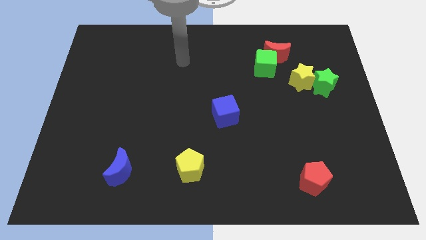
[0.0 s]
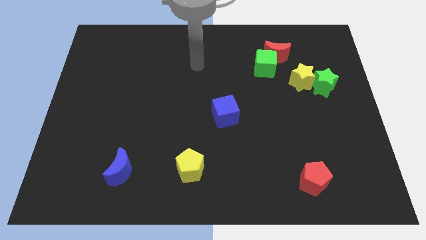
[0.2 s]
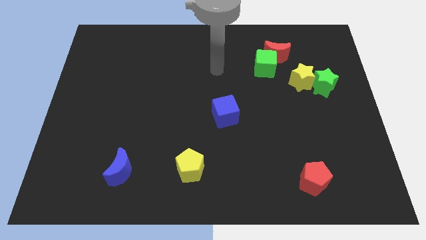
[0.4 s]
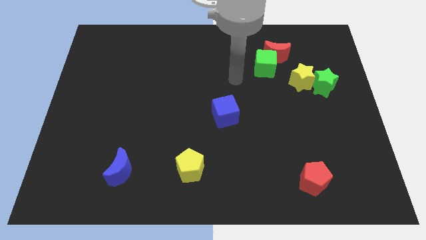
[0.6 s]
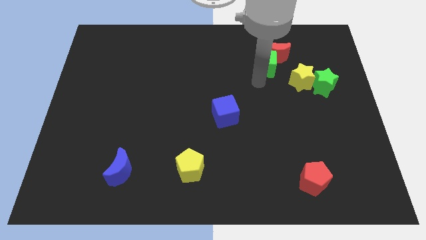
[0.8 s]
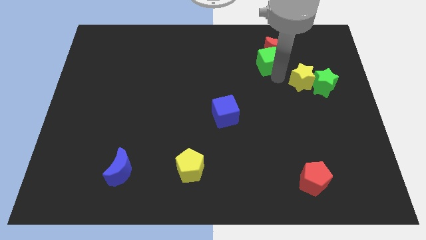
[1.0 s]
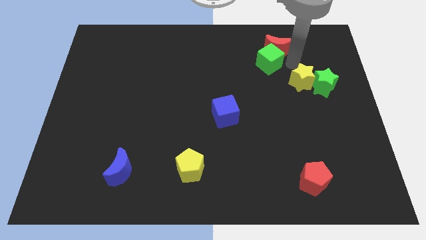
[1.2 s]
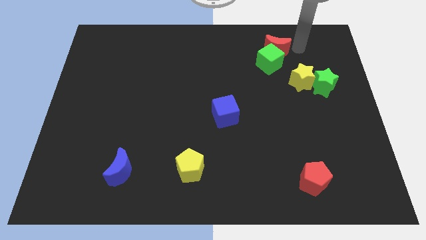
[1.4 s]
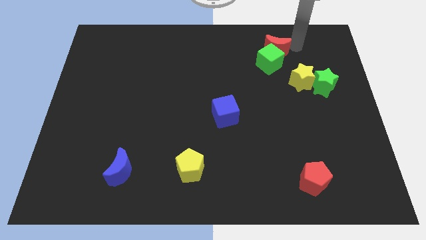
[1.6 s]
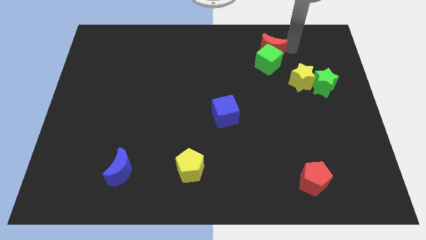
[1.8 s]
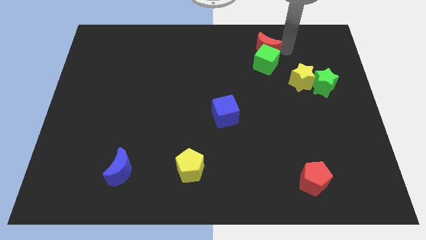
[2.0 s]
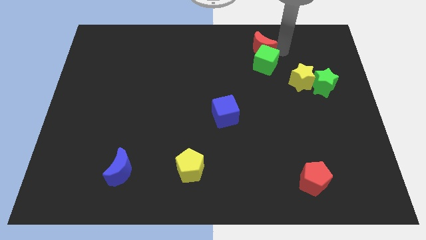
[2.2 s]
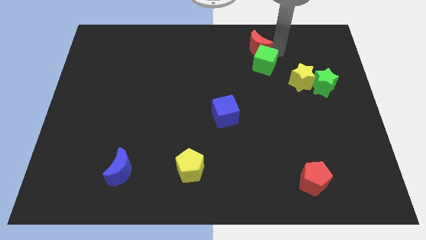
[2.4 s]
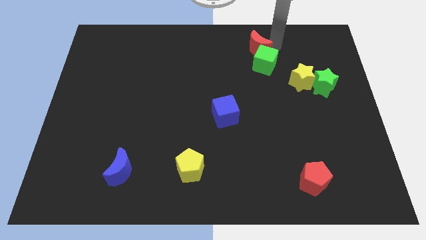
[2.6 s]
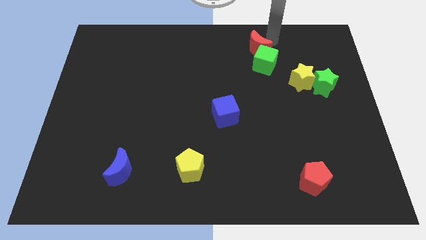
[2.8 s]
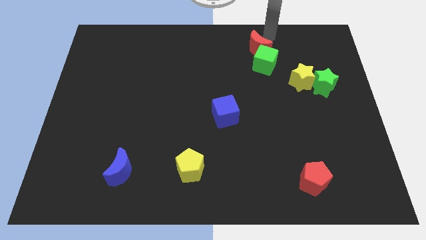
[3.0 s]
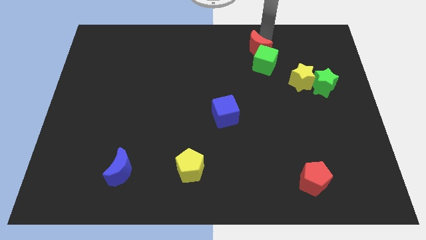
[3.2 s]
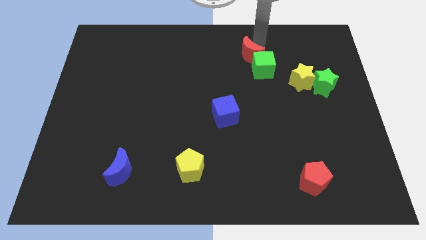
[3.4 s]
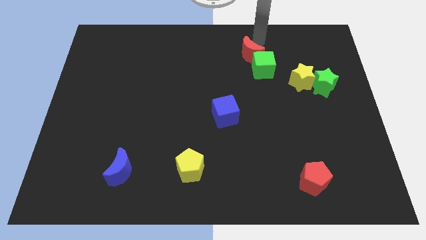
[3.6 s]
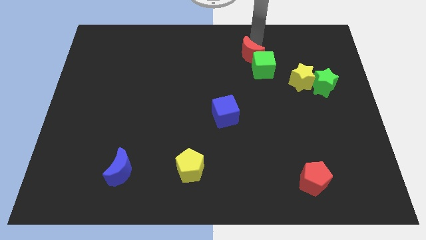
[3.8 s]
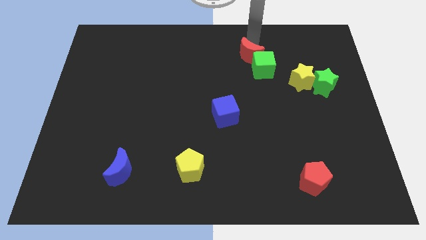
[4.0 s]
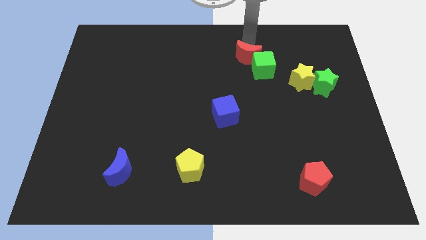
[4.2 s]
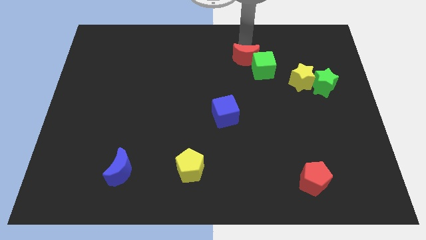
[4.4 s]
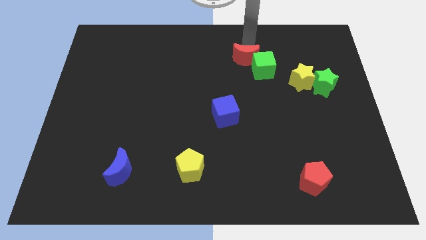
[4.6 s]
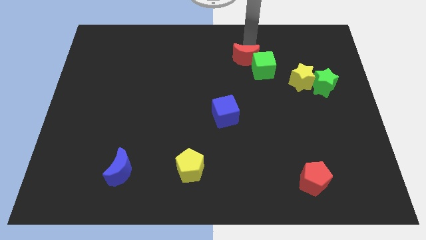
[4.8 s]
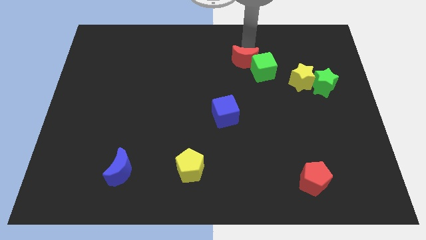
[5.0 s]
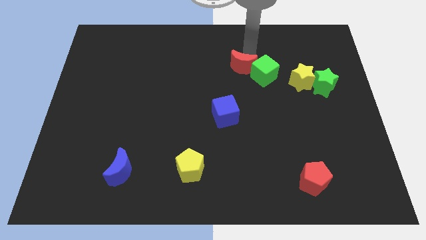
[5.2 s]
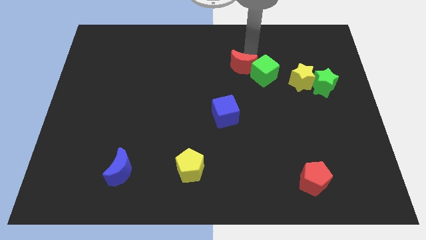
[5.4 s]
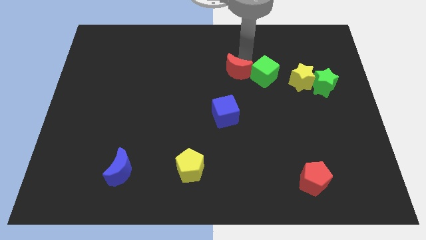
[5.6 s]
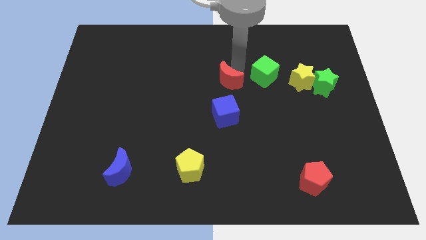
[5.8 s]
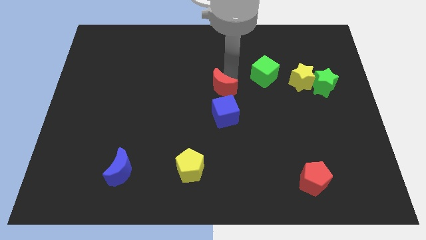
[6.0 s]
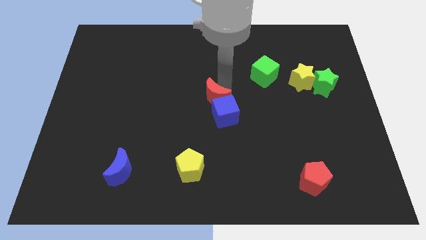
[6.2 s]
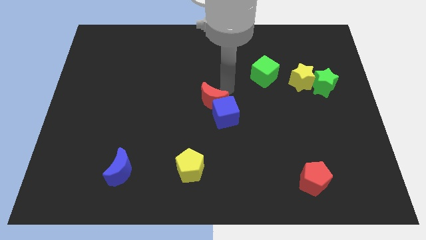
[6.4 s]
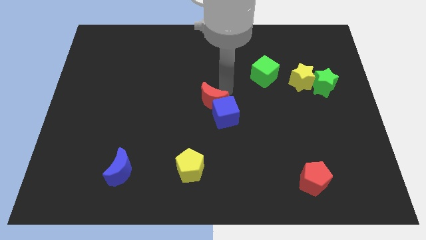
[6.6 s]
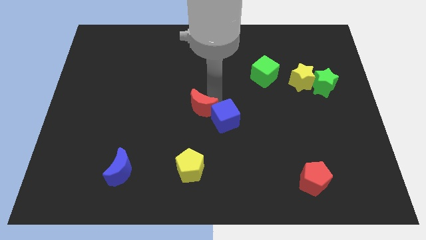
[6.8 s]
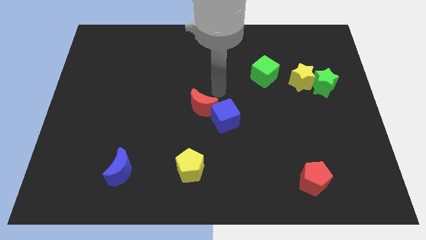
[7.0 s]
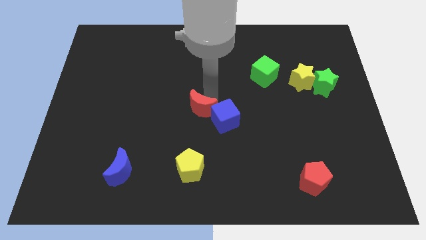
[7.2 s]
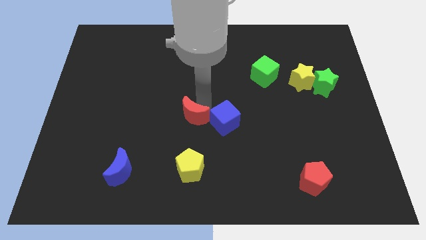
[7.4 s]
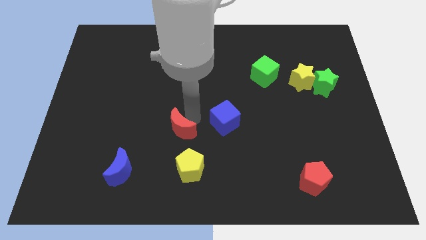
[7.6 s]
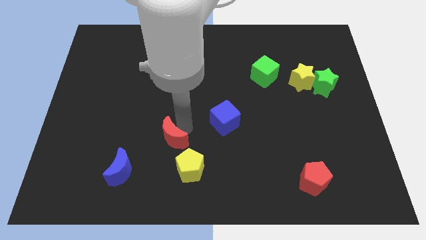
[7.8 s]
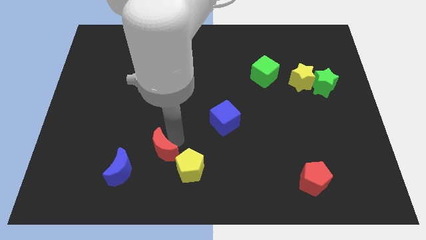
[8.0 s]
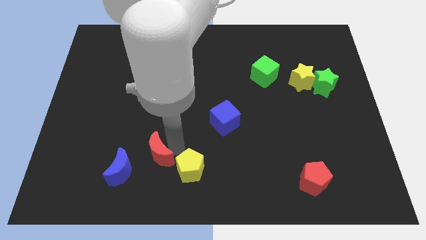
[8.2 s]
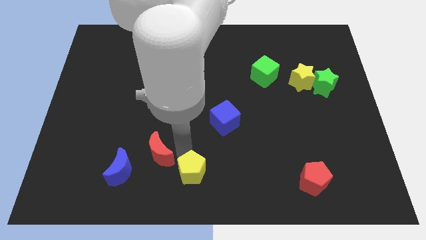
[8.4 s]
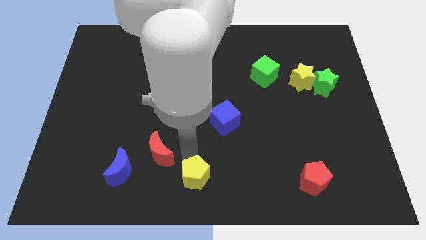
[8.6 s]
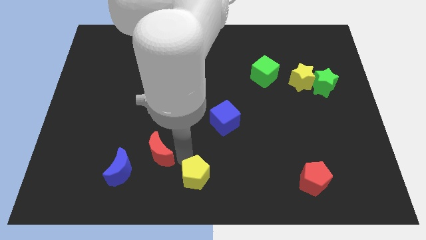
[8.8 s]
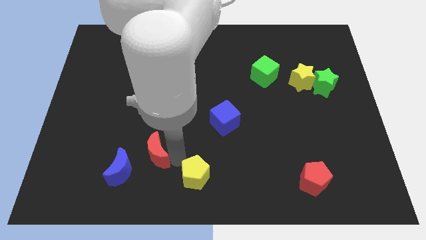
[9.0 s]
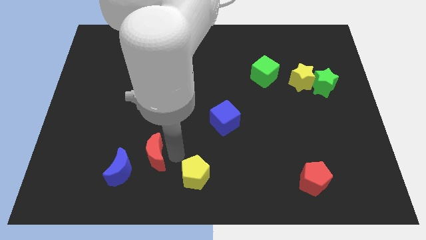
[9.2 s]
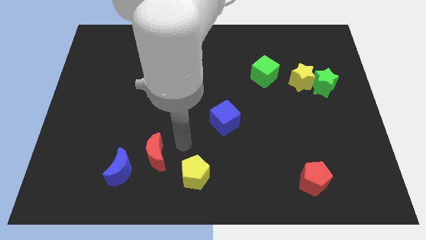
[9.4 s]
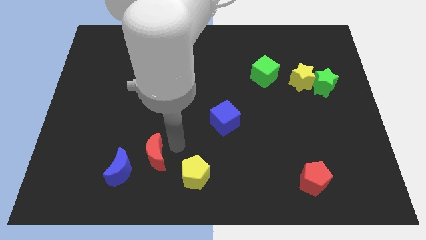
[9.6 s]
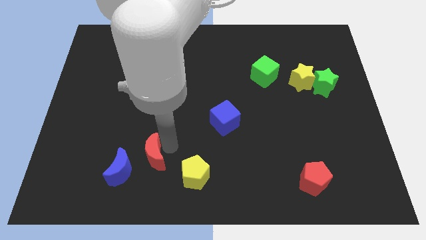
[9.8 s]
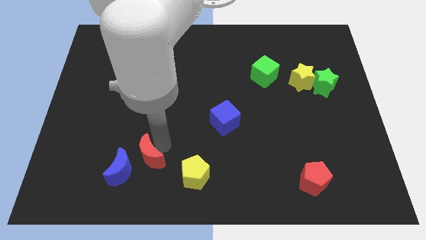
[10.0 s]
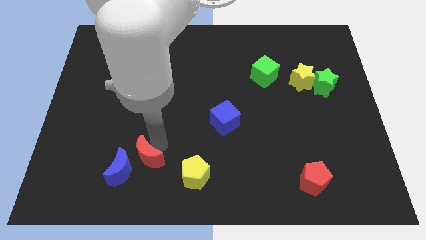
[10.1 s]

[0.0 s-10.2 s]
put the red moon close to the blue moon

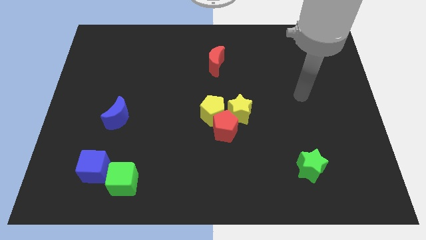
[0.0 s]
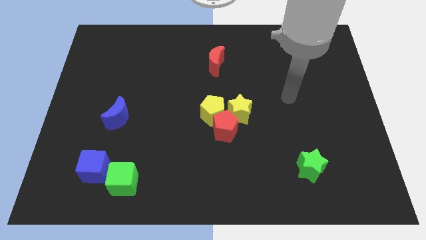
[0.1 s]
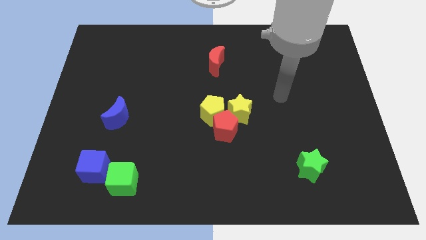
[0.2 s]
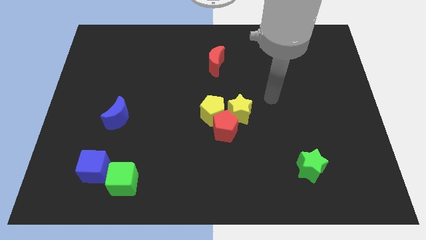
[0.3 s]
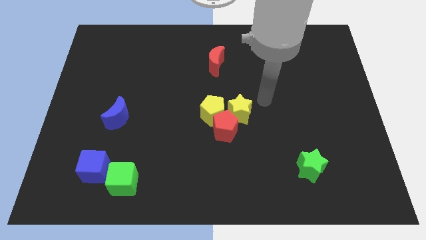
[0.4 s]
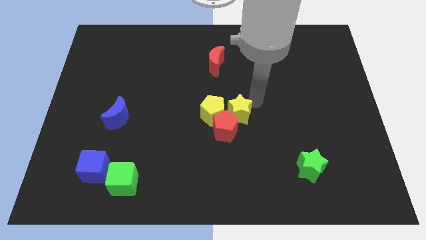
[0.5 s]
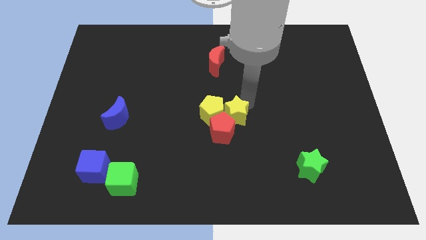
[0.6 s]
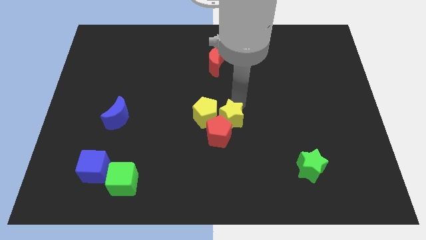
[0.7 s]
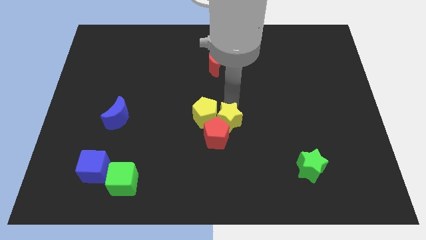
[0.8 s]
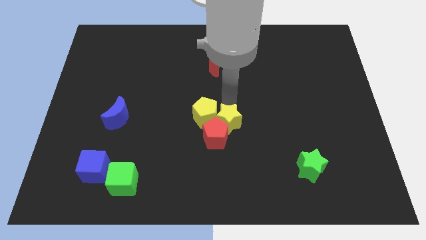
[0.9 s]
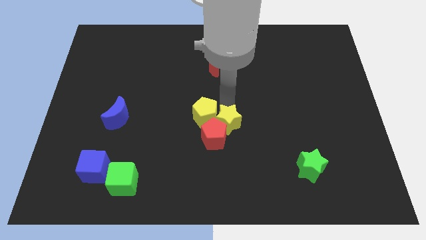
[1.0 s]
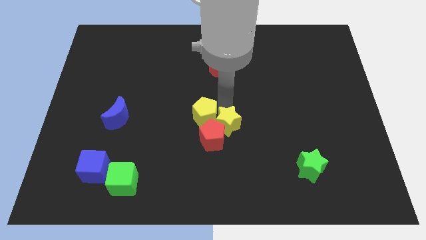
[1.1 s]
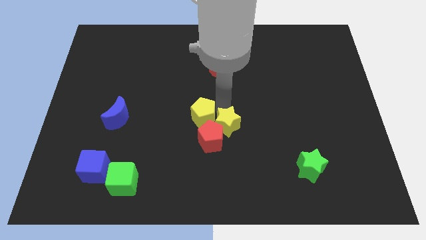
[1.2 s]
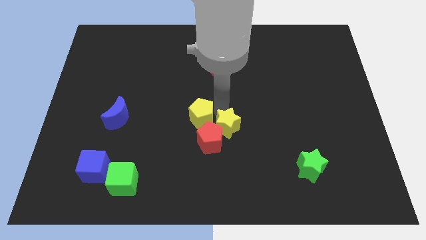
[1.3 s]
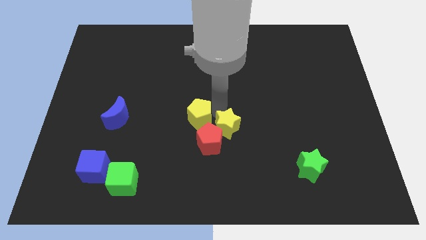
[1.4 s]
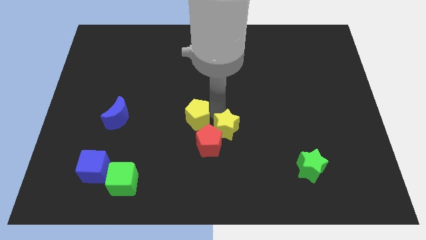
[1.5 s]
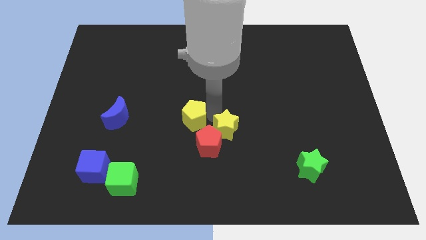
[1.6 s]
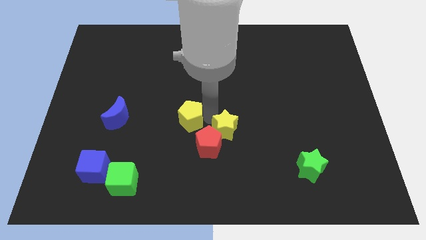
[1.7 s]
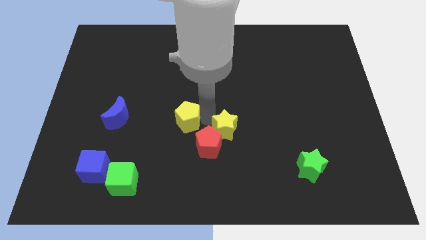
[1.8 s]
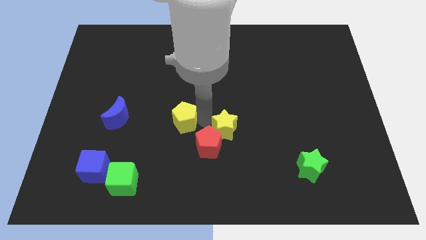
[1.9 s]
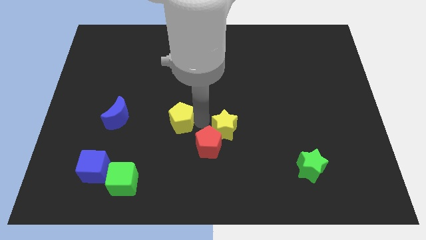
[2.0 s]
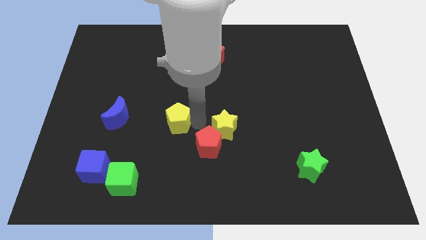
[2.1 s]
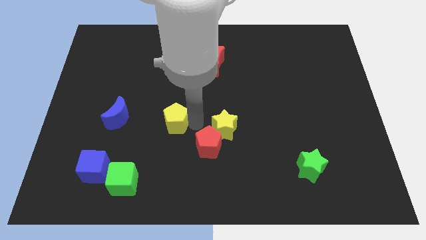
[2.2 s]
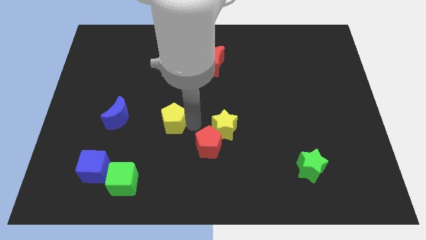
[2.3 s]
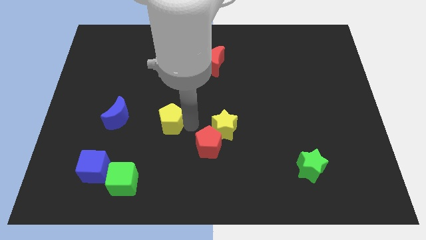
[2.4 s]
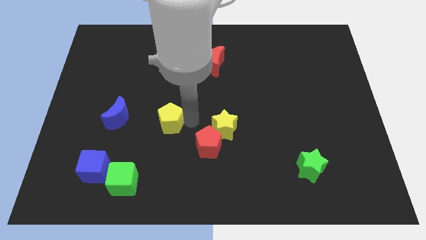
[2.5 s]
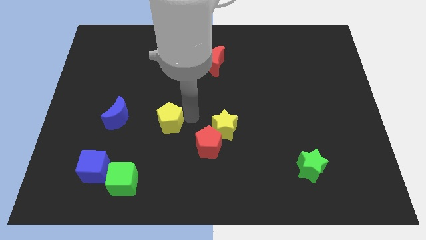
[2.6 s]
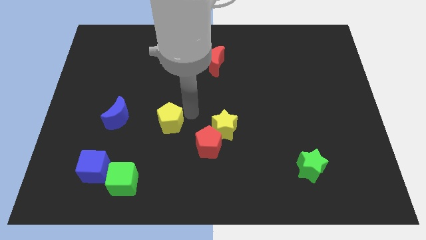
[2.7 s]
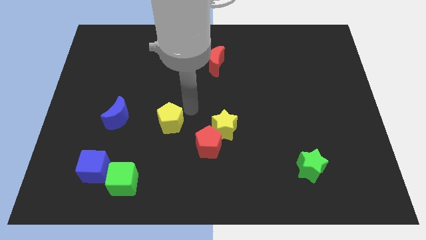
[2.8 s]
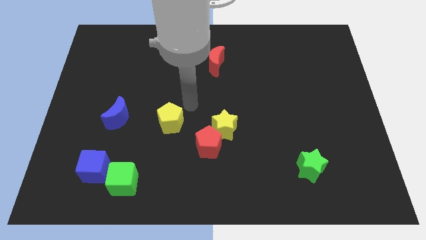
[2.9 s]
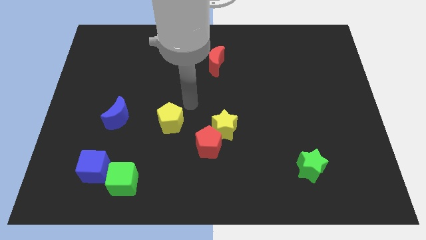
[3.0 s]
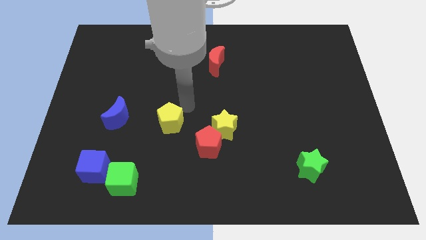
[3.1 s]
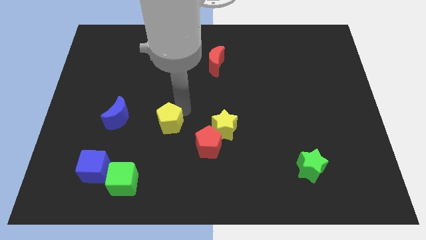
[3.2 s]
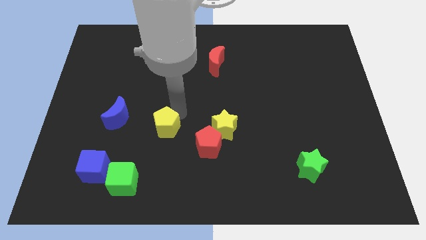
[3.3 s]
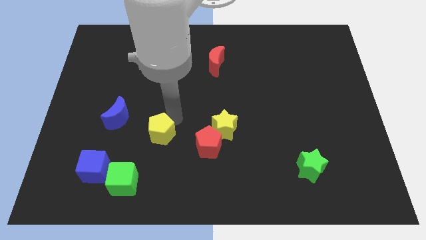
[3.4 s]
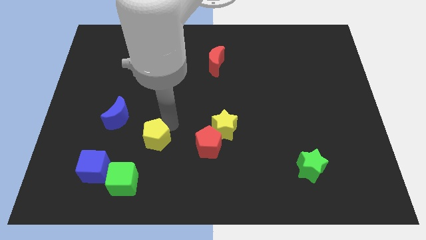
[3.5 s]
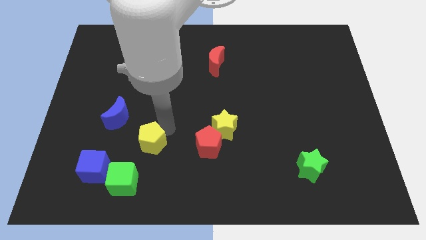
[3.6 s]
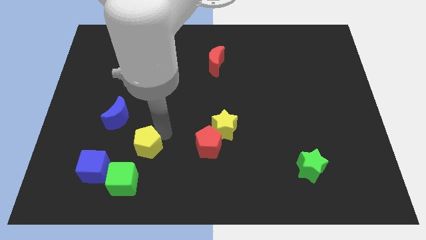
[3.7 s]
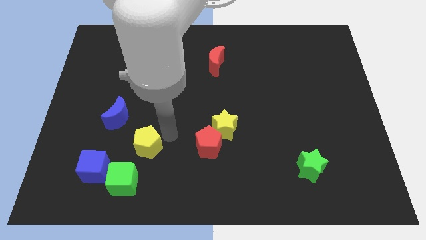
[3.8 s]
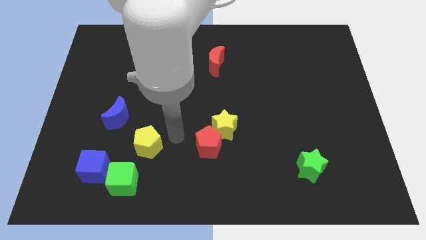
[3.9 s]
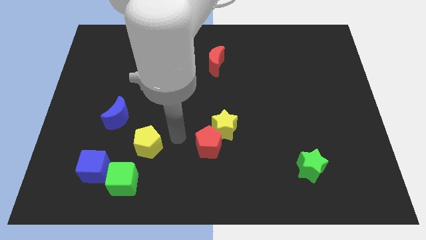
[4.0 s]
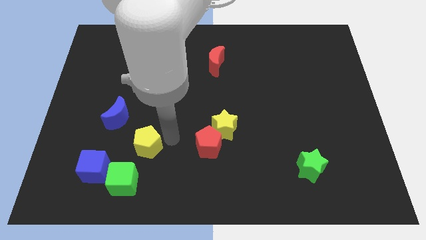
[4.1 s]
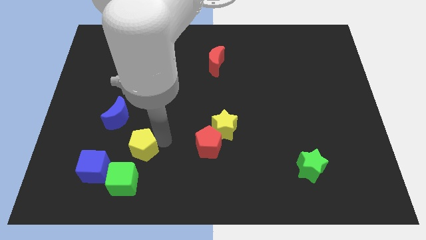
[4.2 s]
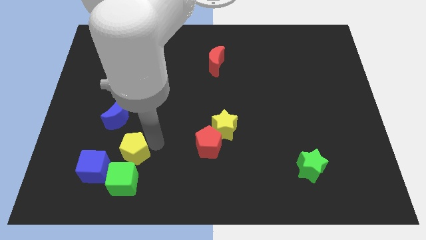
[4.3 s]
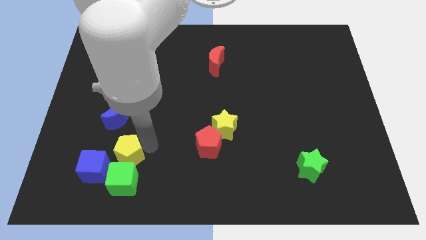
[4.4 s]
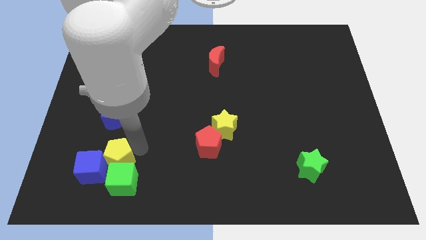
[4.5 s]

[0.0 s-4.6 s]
push the yellow pentagon close to the blue cube
